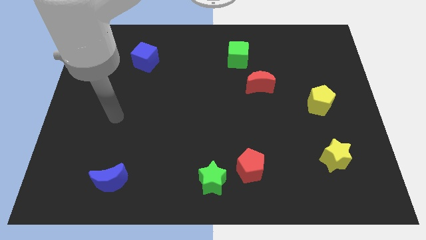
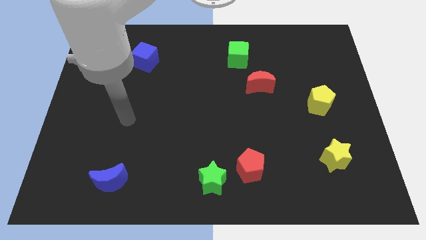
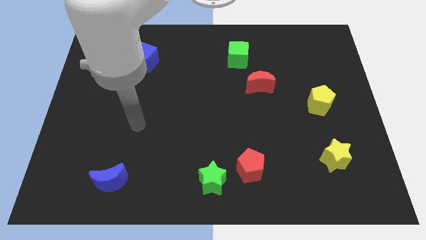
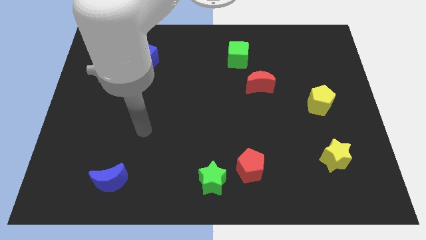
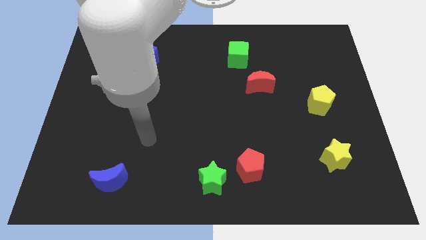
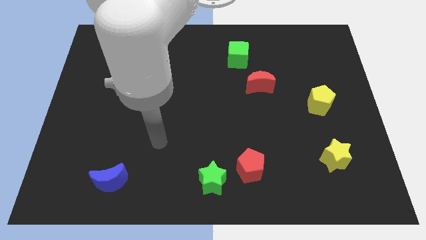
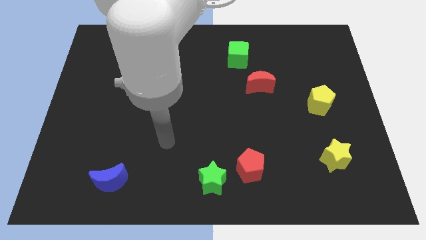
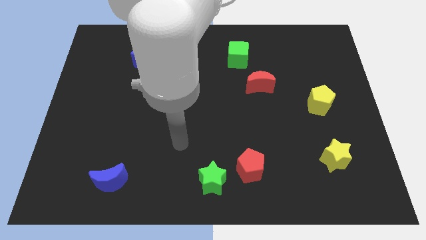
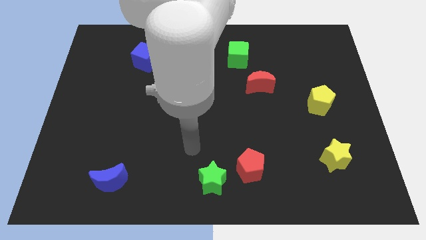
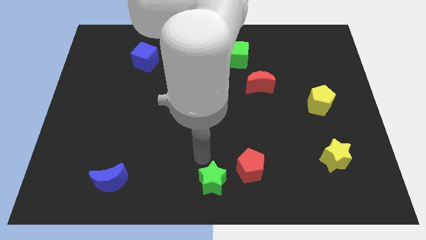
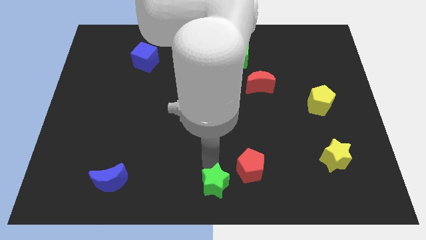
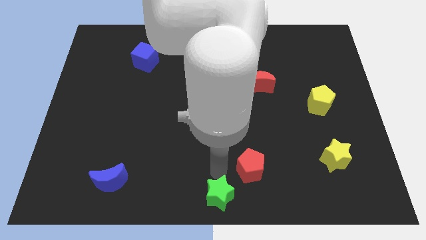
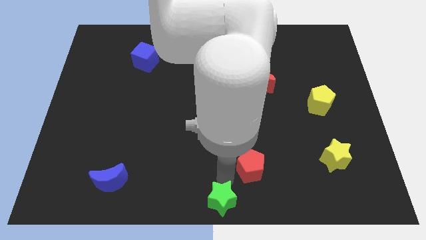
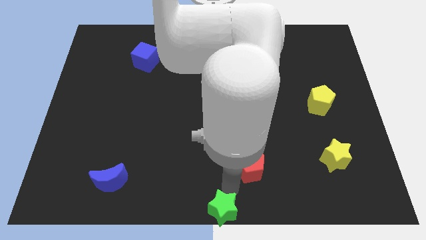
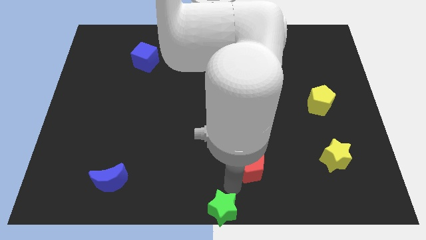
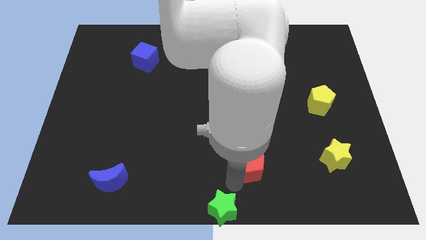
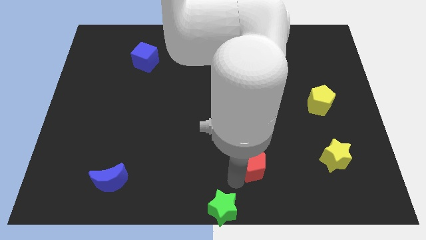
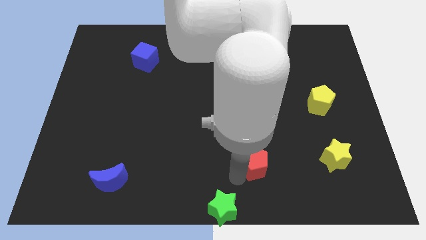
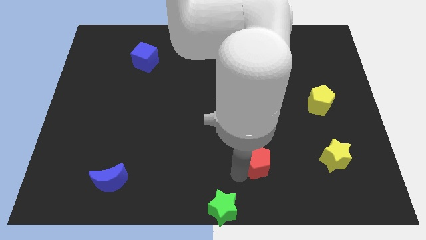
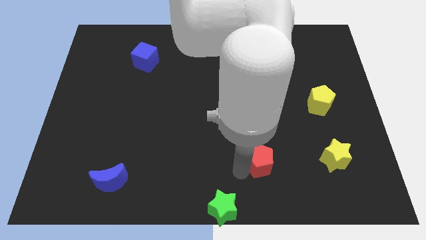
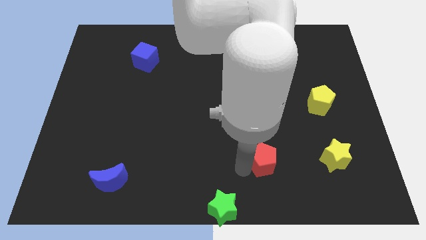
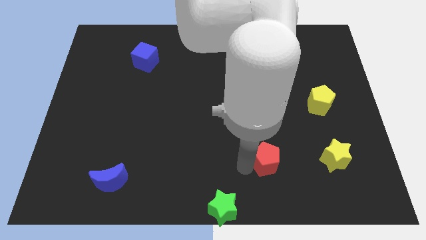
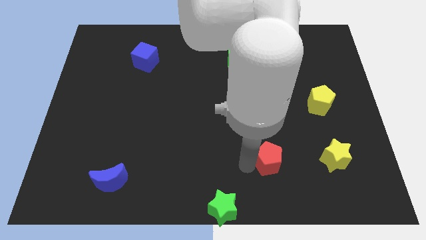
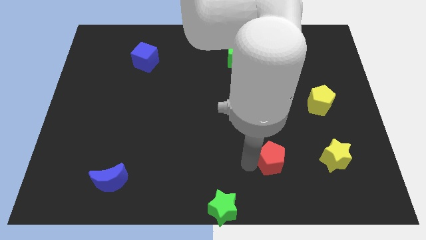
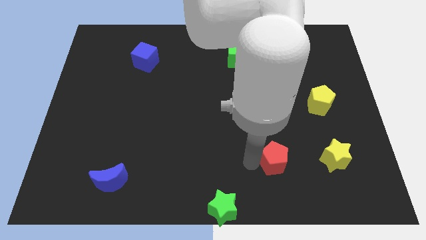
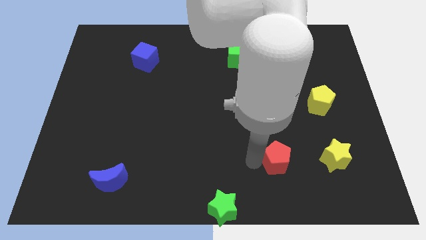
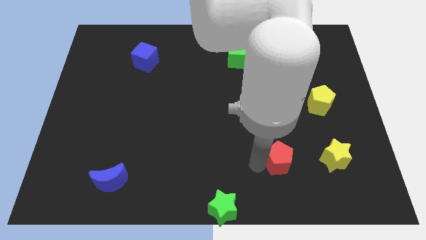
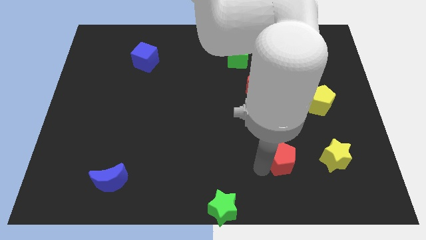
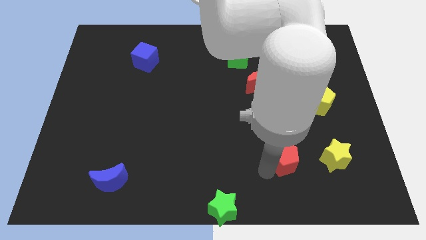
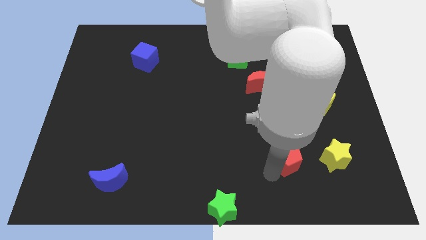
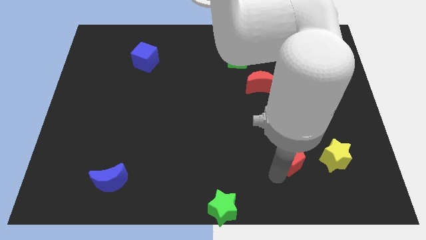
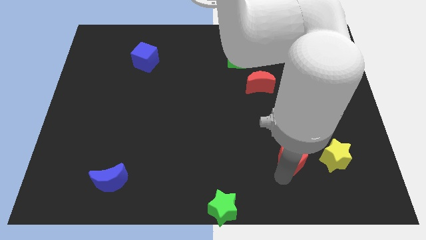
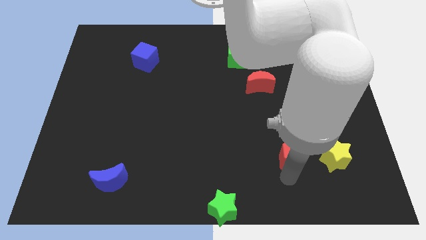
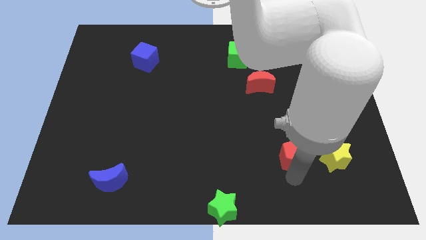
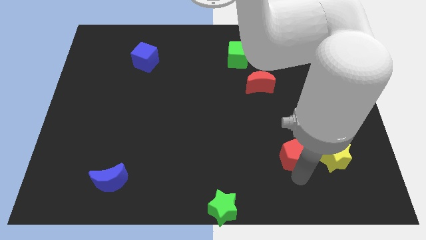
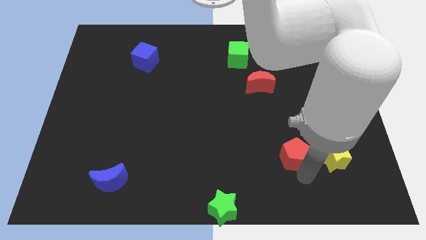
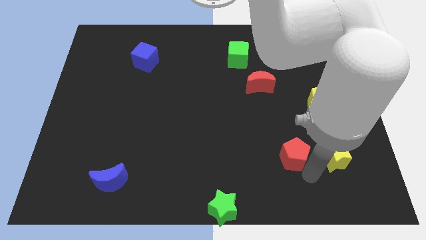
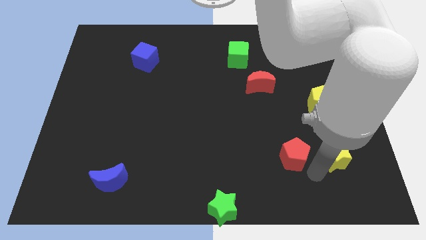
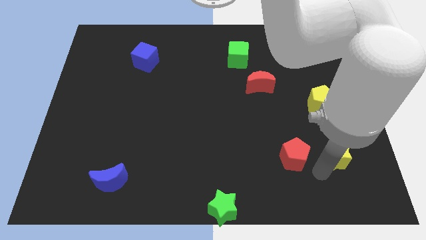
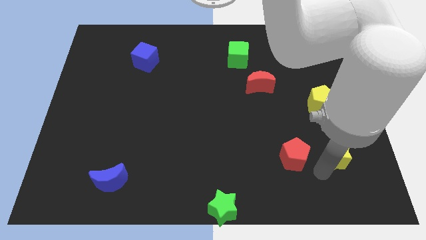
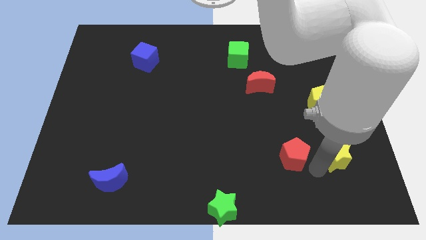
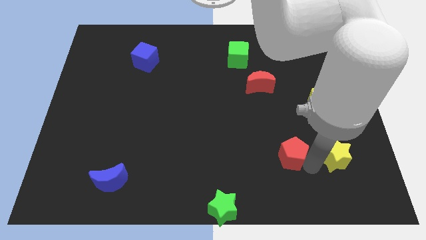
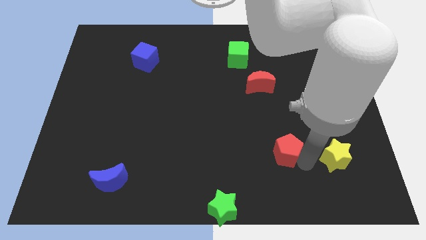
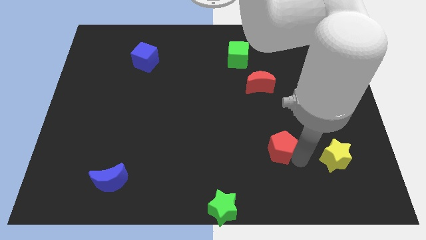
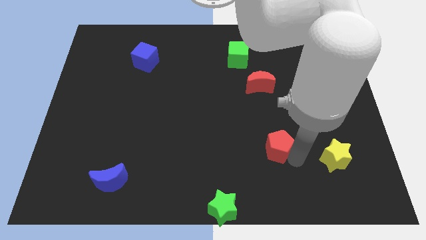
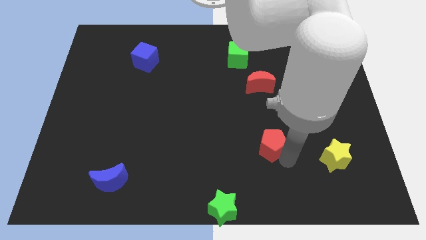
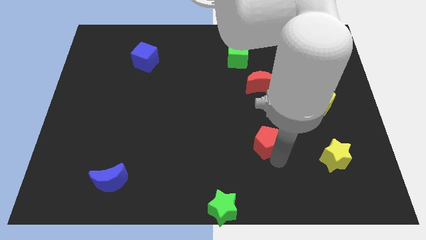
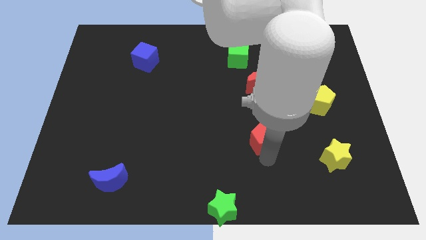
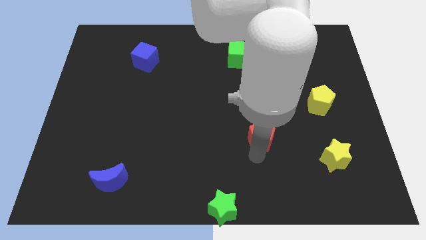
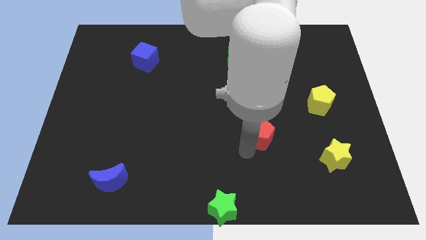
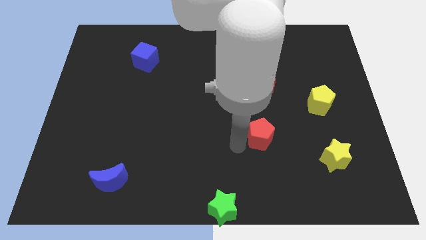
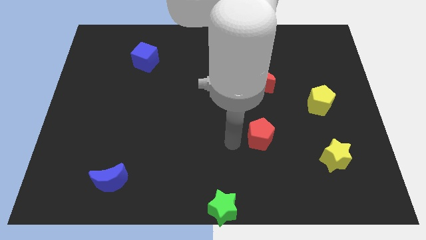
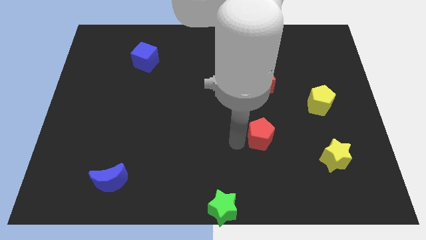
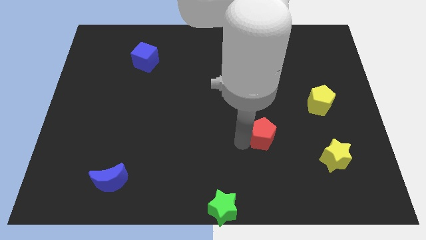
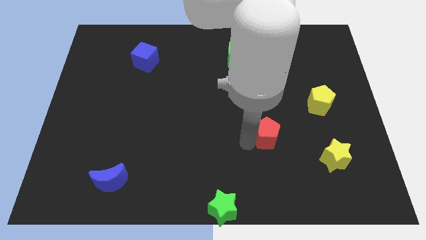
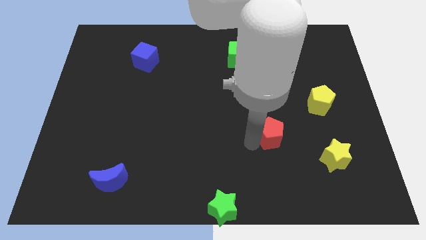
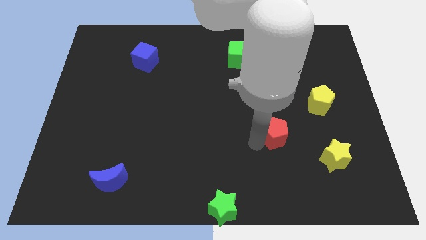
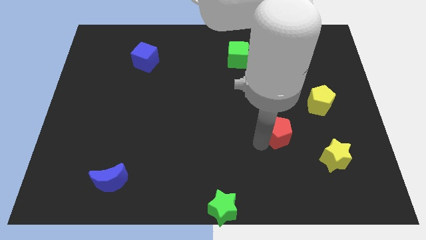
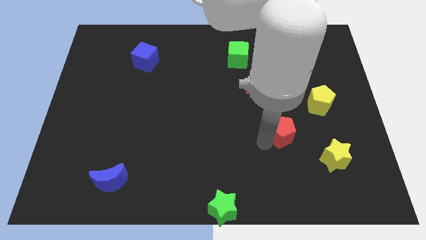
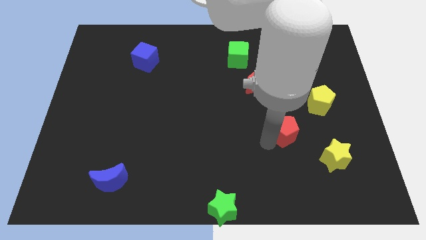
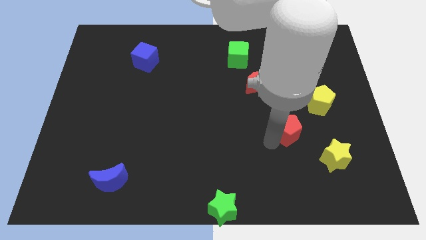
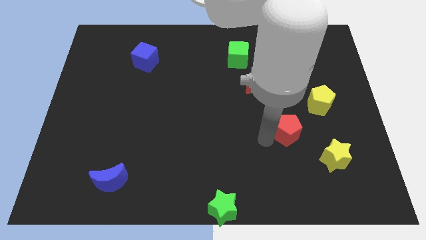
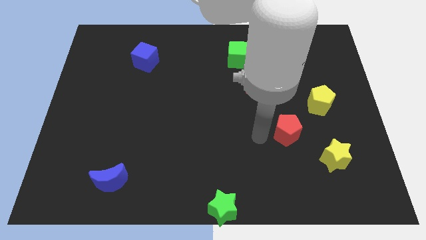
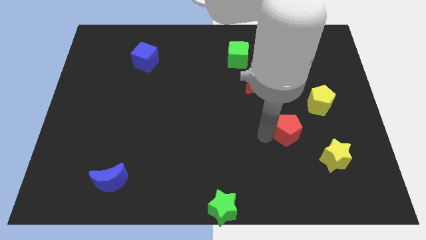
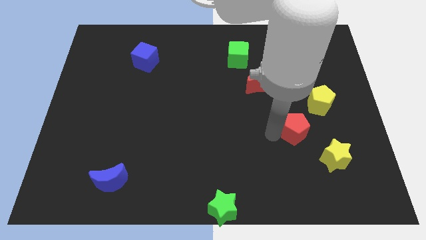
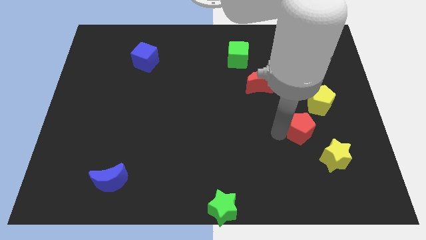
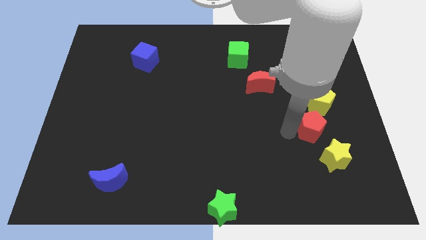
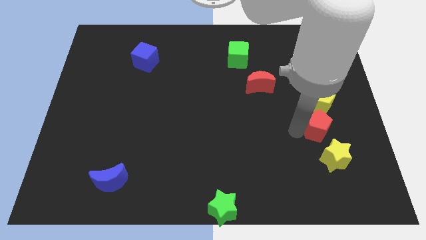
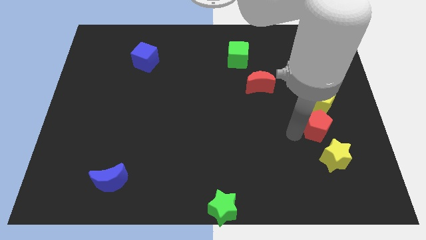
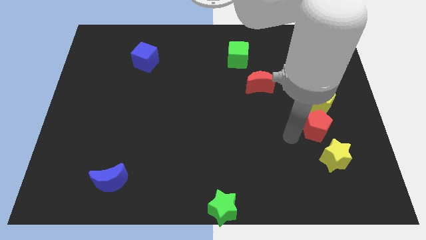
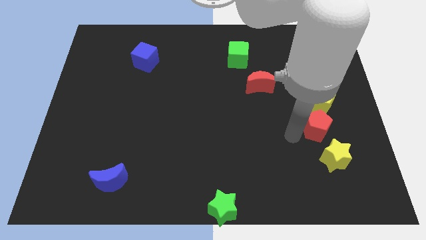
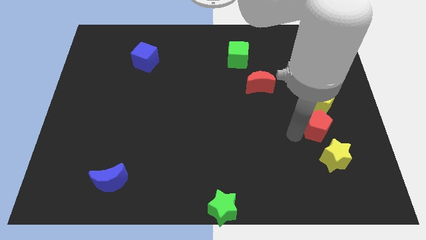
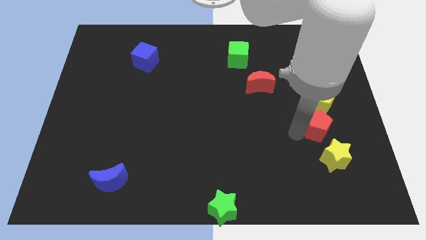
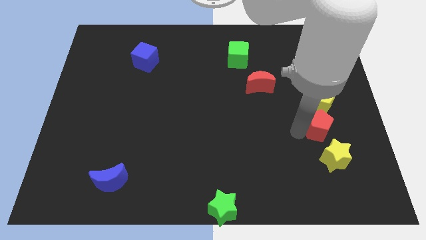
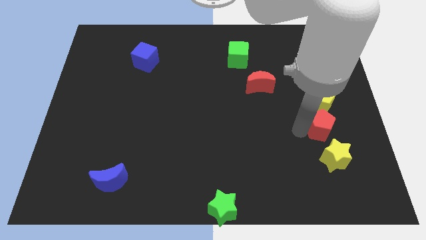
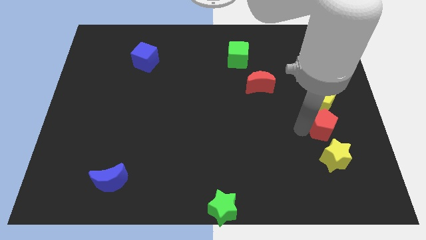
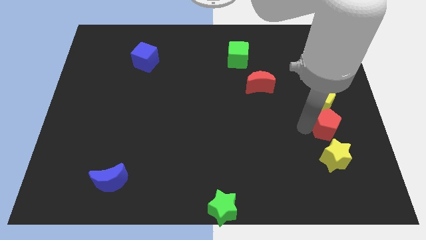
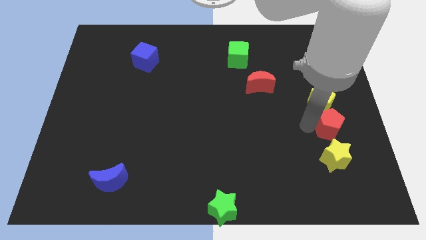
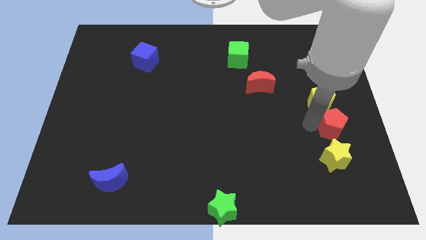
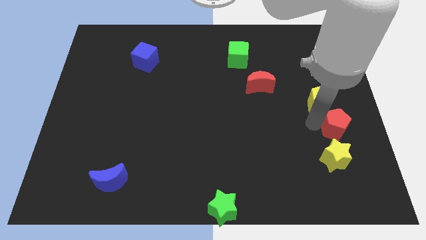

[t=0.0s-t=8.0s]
put the red pentagon to the right side of the board
